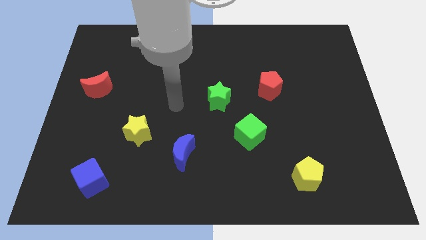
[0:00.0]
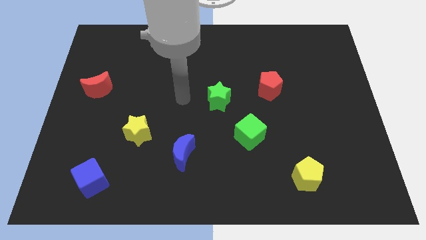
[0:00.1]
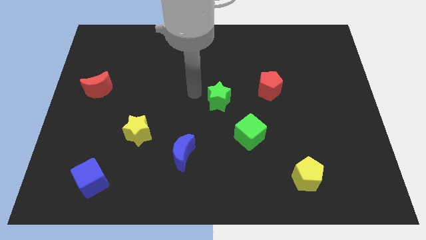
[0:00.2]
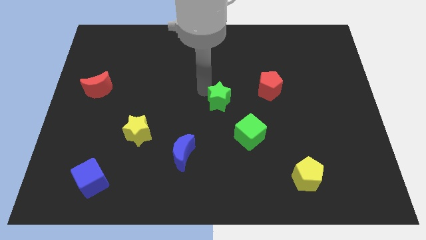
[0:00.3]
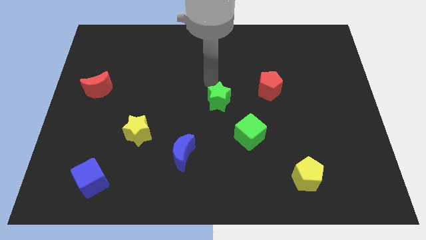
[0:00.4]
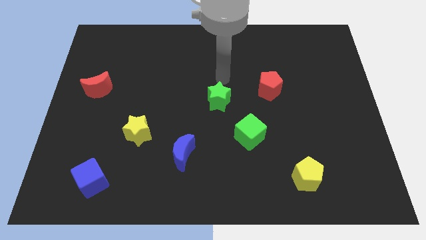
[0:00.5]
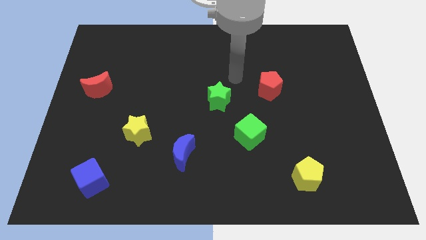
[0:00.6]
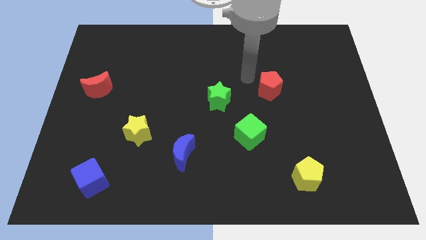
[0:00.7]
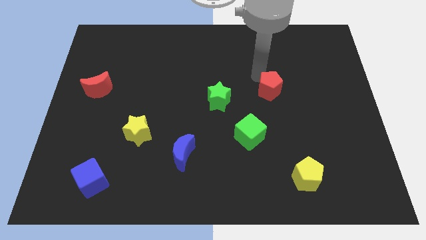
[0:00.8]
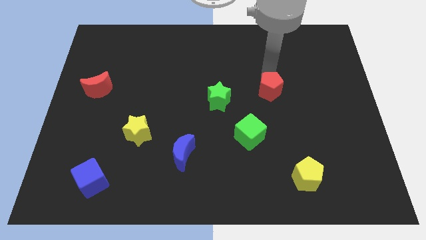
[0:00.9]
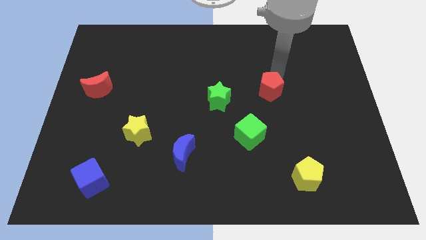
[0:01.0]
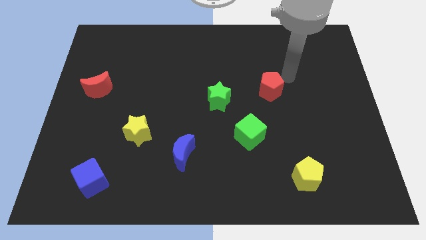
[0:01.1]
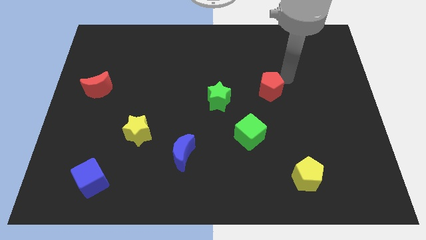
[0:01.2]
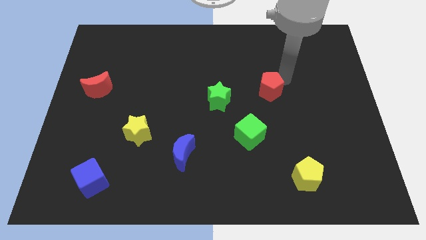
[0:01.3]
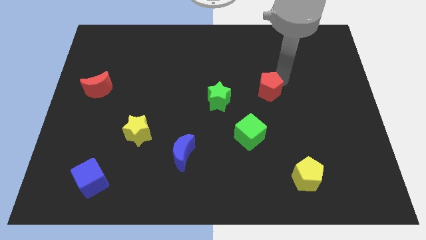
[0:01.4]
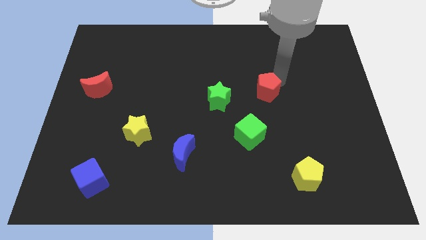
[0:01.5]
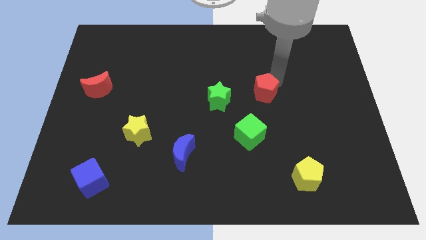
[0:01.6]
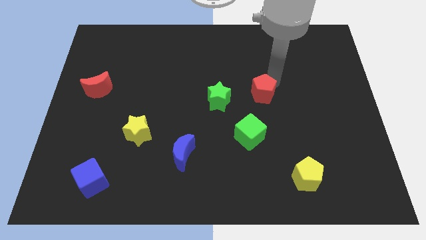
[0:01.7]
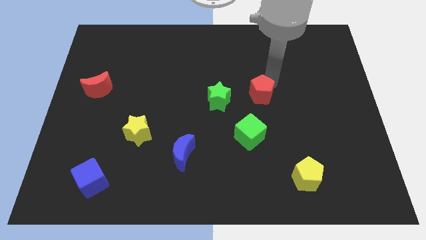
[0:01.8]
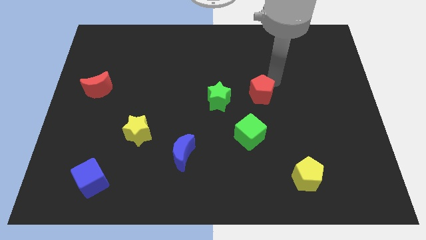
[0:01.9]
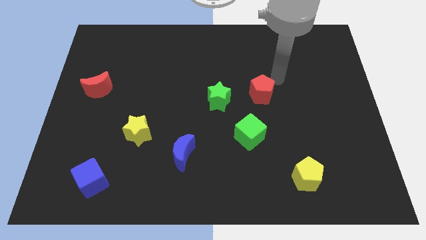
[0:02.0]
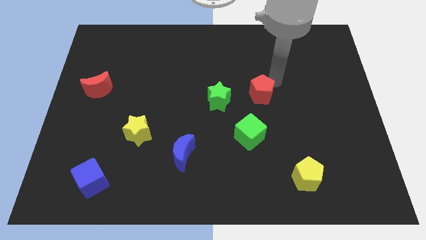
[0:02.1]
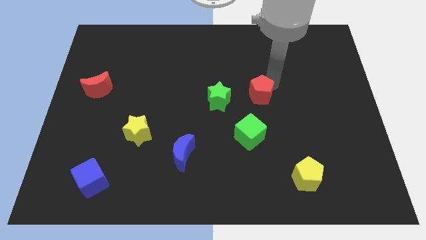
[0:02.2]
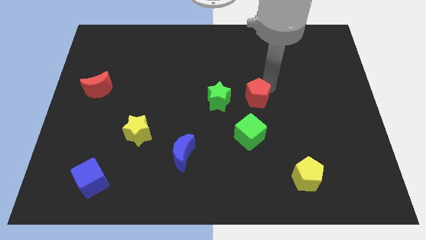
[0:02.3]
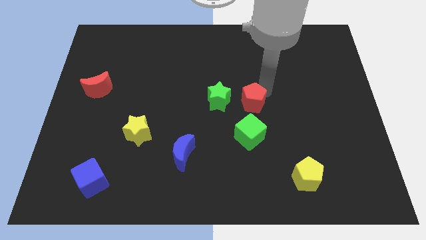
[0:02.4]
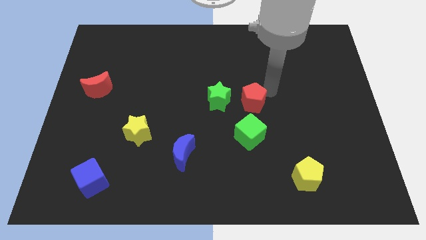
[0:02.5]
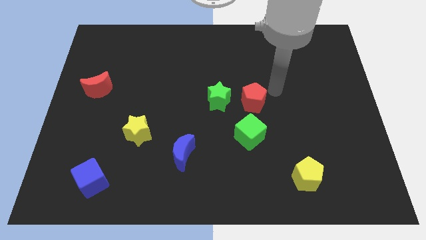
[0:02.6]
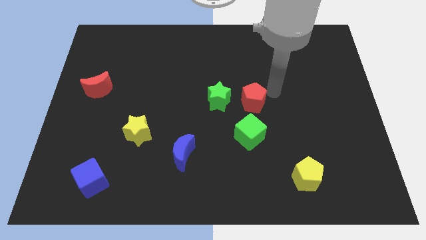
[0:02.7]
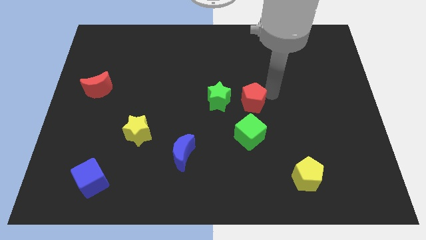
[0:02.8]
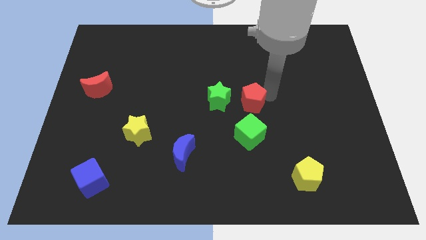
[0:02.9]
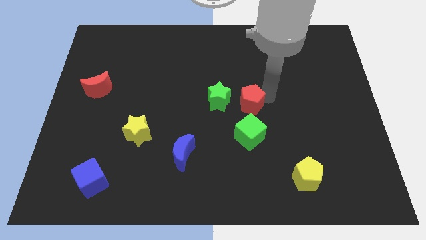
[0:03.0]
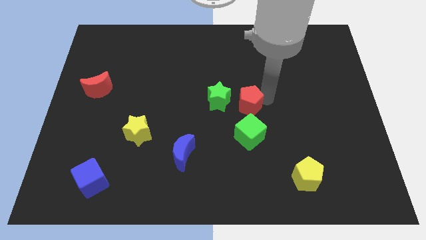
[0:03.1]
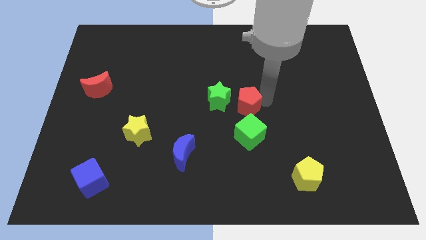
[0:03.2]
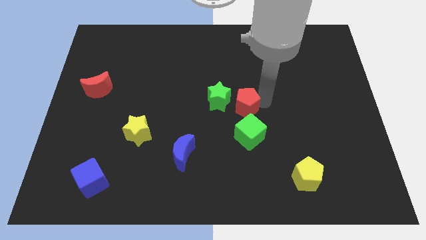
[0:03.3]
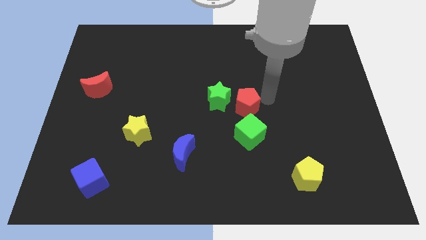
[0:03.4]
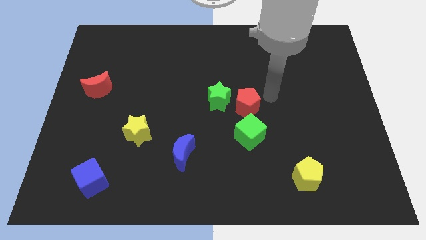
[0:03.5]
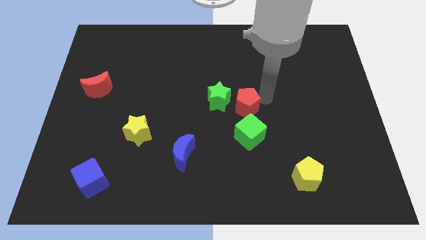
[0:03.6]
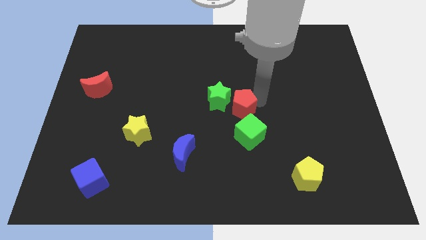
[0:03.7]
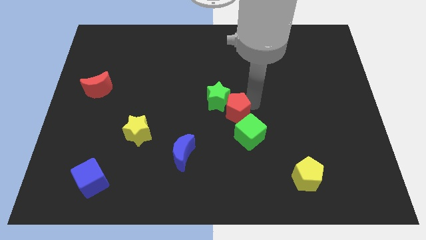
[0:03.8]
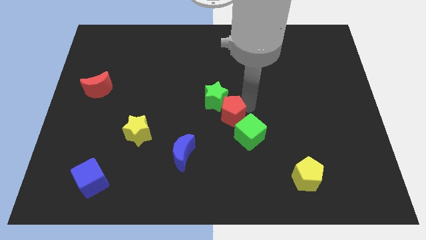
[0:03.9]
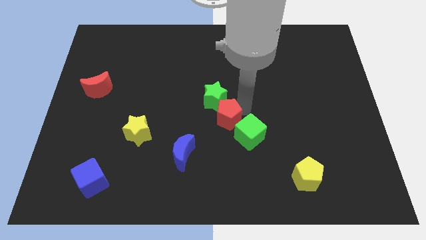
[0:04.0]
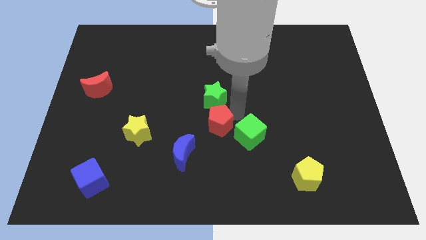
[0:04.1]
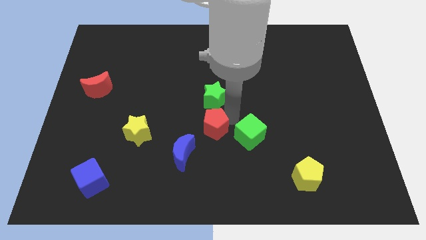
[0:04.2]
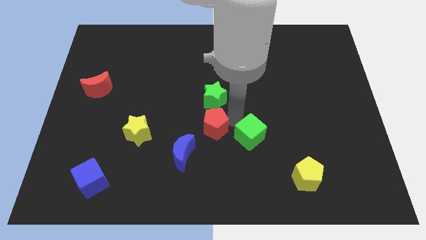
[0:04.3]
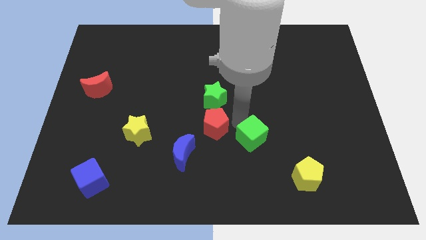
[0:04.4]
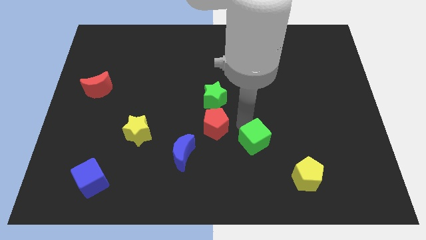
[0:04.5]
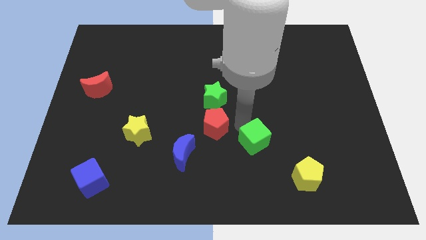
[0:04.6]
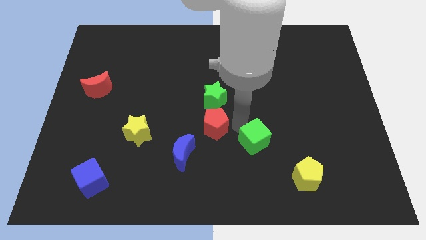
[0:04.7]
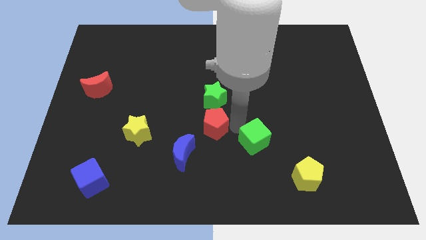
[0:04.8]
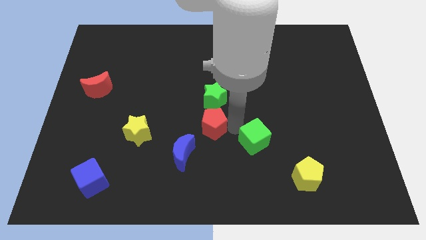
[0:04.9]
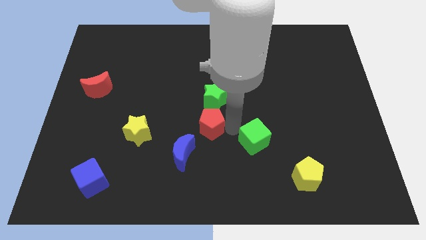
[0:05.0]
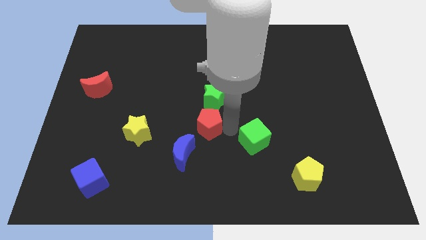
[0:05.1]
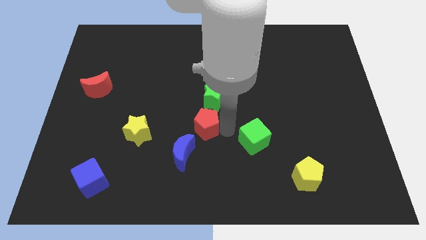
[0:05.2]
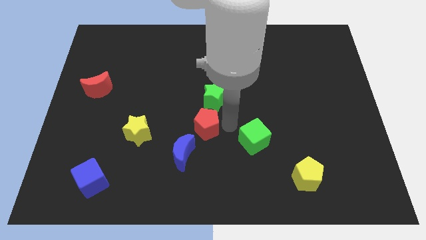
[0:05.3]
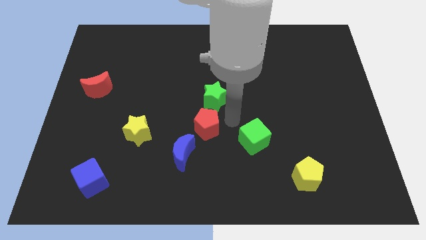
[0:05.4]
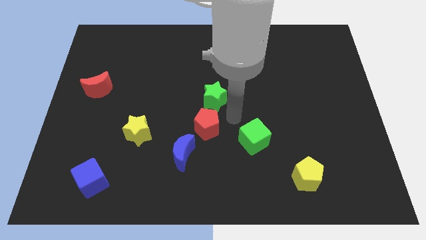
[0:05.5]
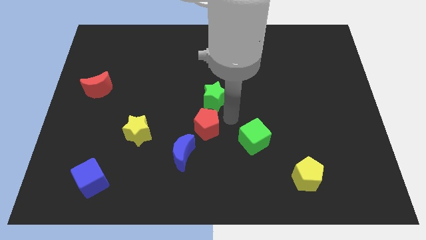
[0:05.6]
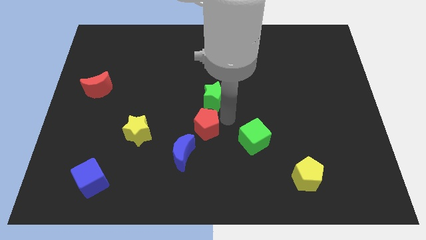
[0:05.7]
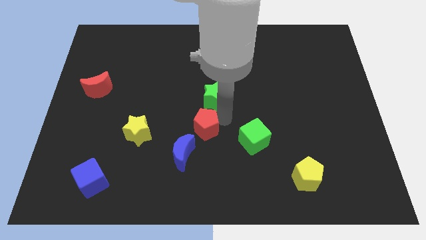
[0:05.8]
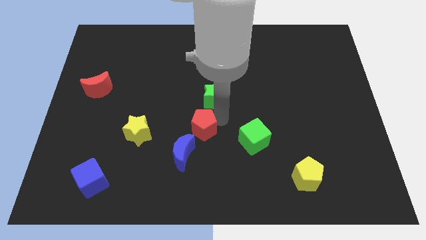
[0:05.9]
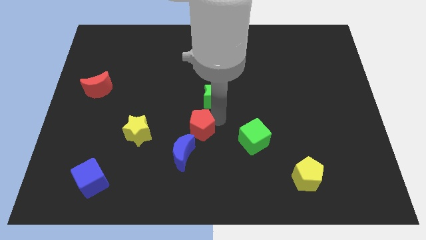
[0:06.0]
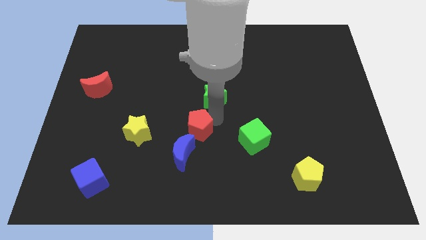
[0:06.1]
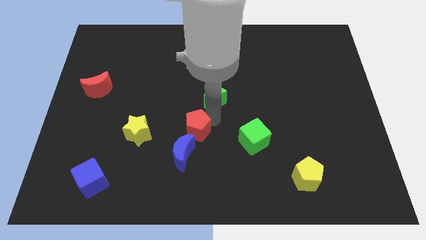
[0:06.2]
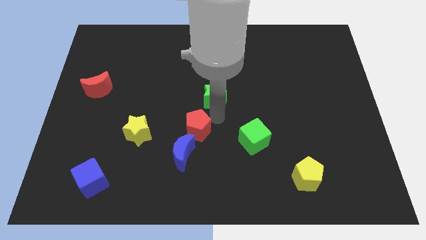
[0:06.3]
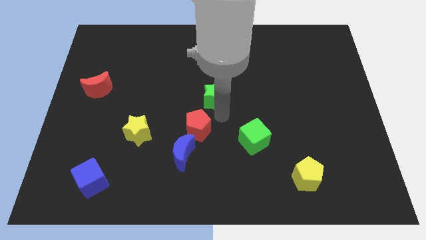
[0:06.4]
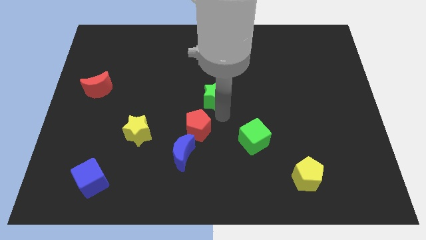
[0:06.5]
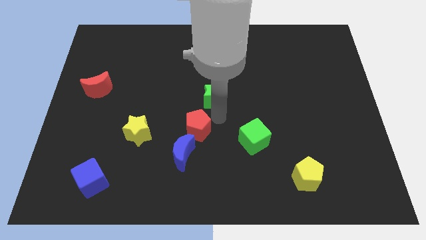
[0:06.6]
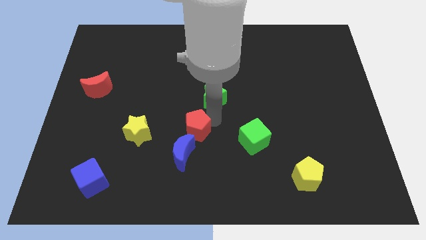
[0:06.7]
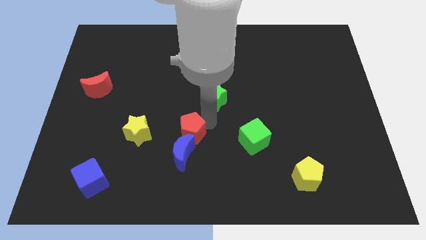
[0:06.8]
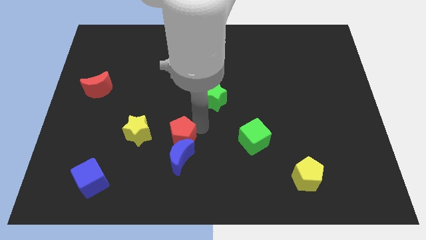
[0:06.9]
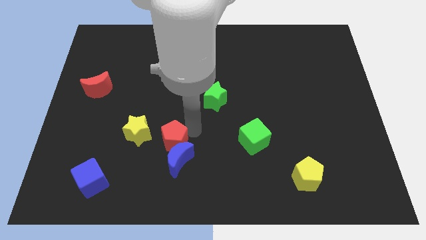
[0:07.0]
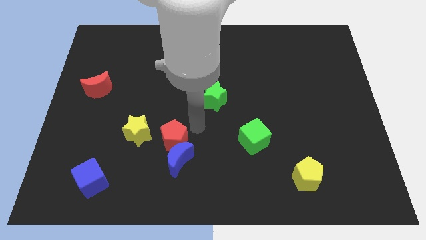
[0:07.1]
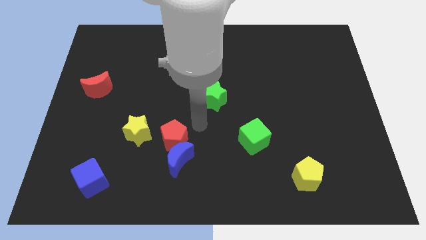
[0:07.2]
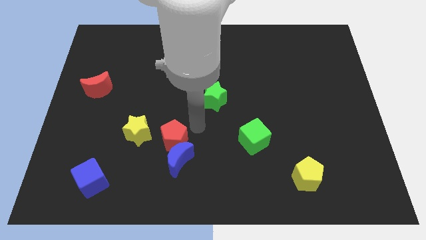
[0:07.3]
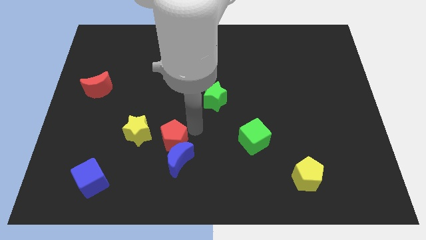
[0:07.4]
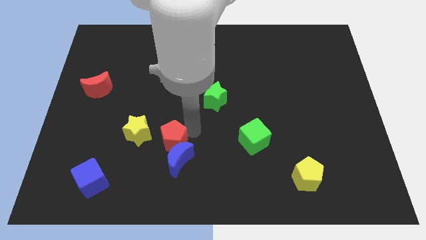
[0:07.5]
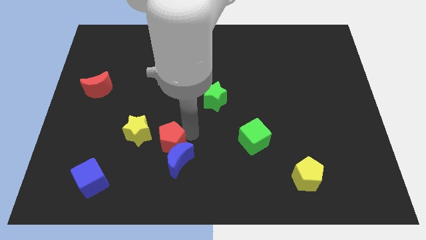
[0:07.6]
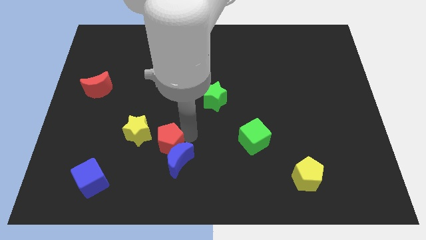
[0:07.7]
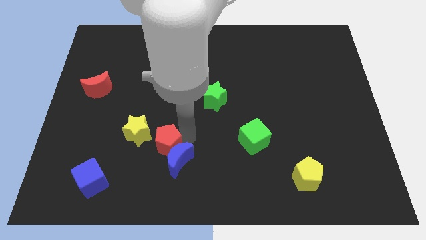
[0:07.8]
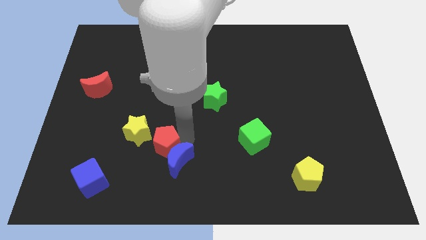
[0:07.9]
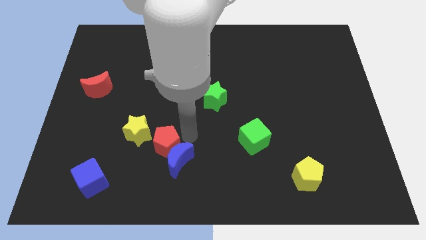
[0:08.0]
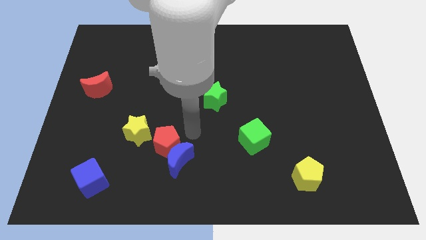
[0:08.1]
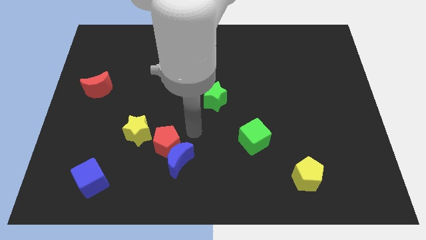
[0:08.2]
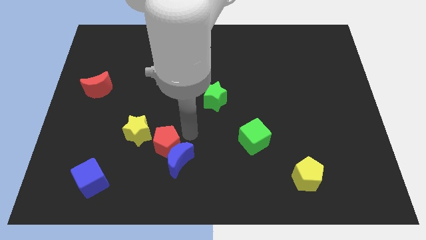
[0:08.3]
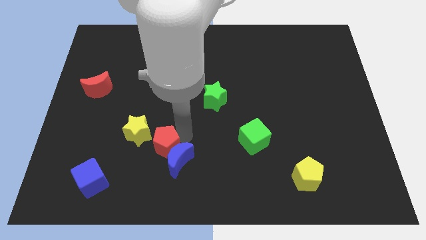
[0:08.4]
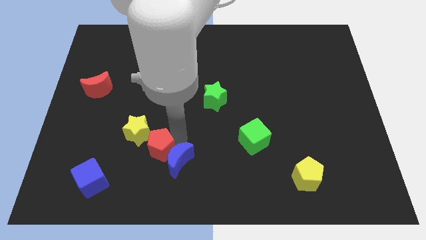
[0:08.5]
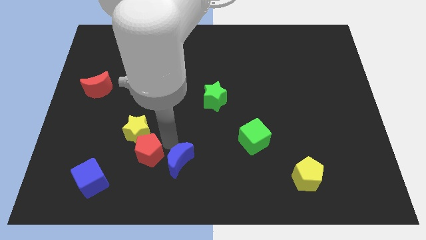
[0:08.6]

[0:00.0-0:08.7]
move the red pentagon to the bottom side of the yellow star
